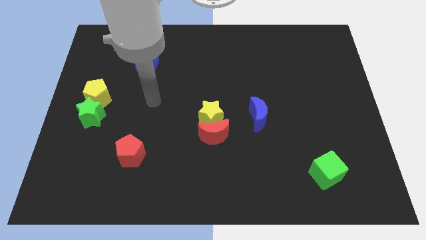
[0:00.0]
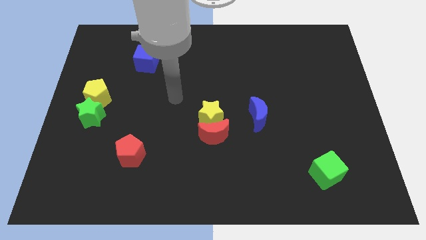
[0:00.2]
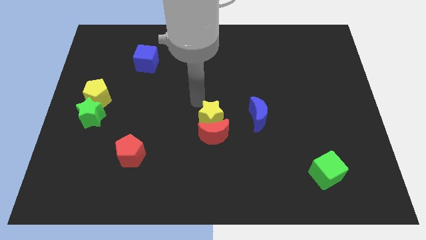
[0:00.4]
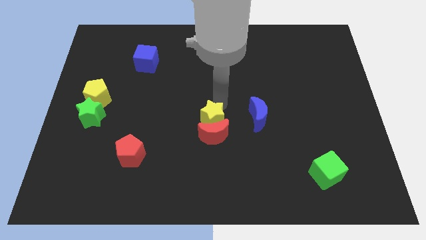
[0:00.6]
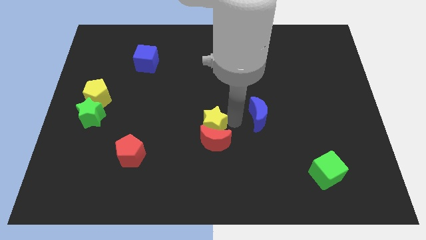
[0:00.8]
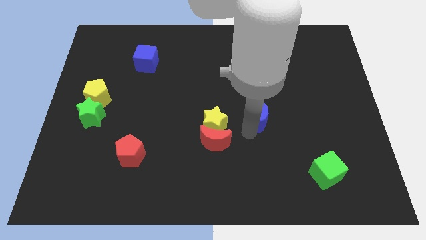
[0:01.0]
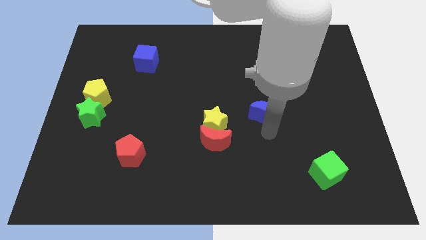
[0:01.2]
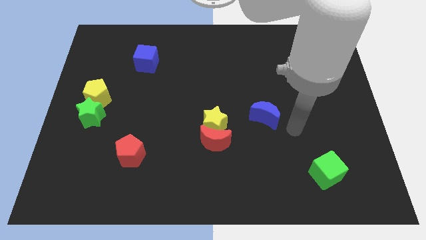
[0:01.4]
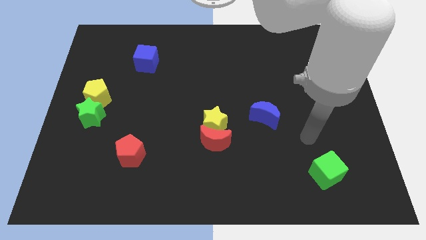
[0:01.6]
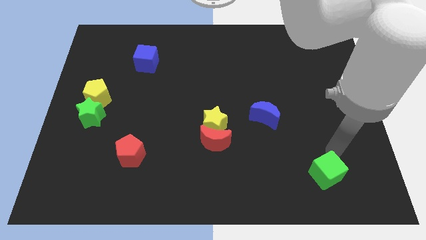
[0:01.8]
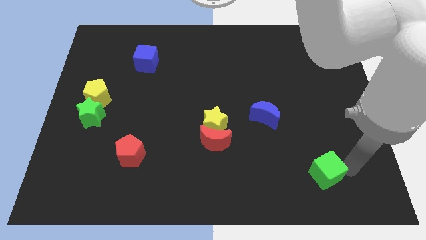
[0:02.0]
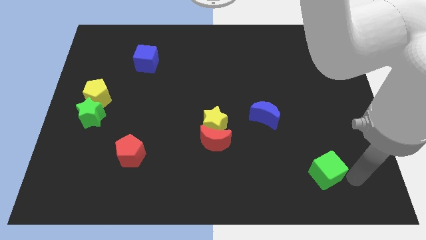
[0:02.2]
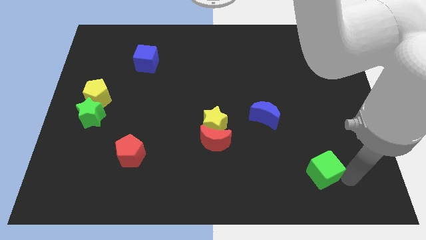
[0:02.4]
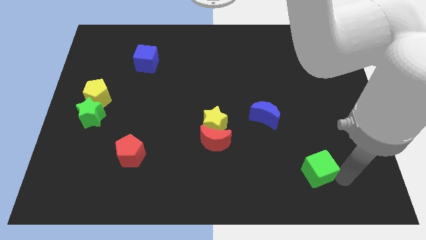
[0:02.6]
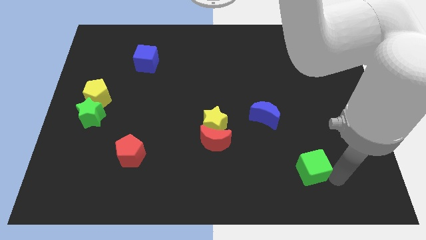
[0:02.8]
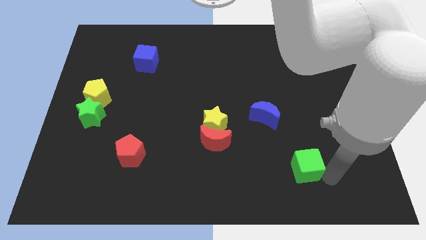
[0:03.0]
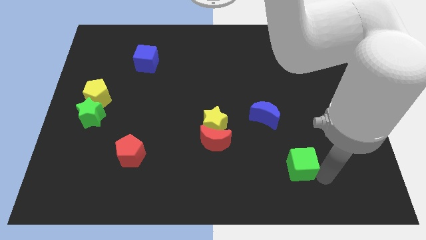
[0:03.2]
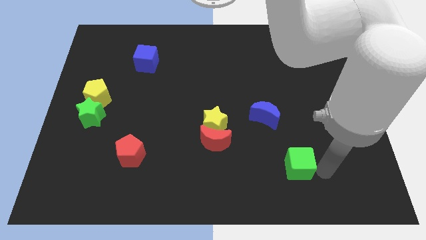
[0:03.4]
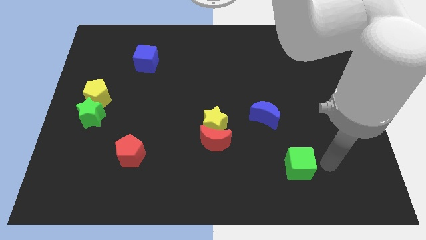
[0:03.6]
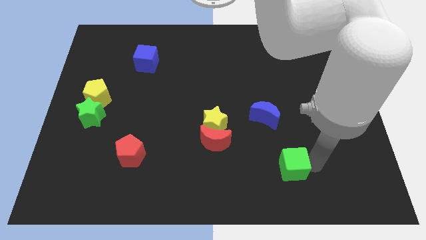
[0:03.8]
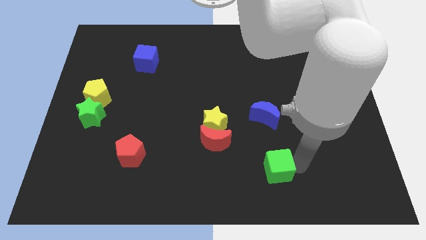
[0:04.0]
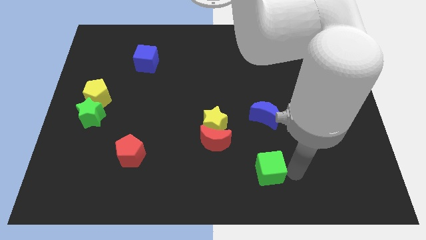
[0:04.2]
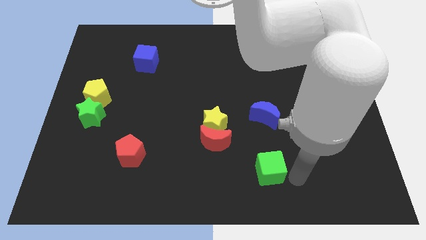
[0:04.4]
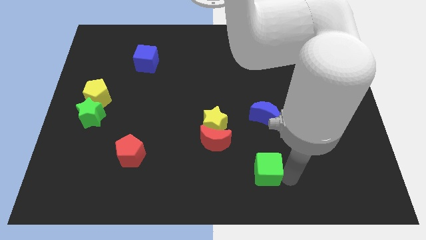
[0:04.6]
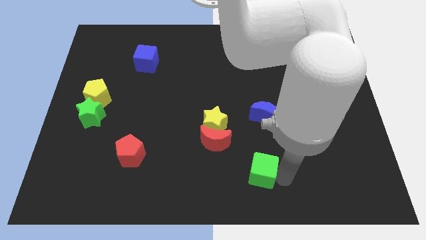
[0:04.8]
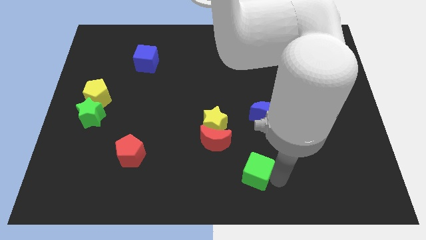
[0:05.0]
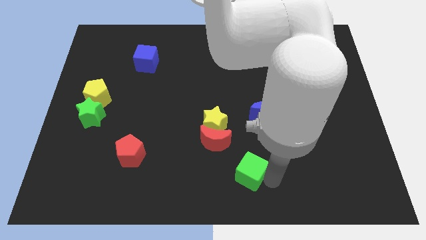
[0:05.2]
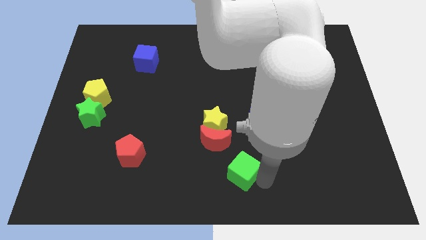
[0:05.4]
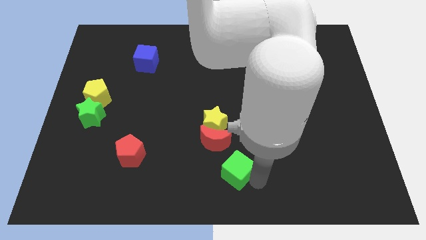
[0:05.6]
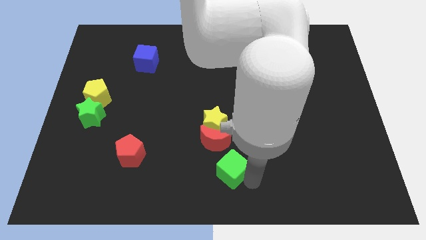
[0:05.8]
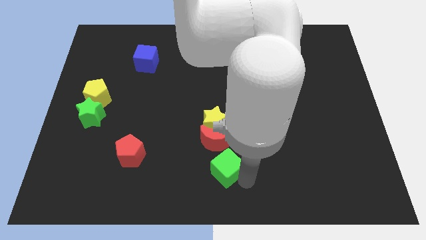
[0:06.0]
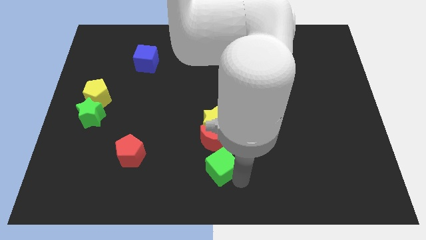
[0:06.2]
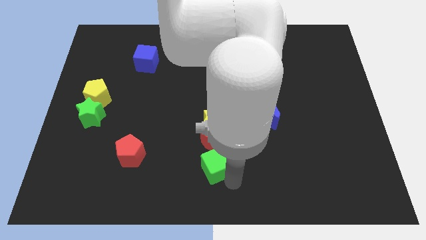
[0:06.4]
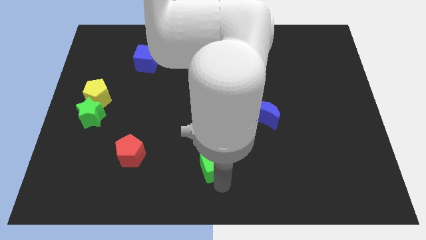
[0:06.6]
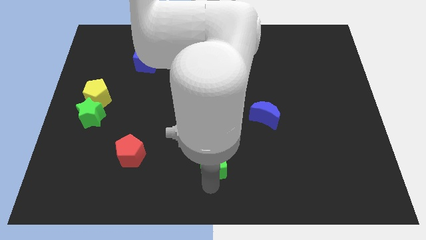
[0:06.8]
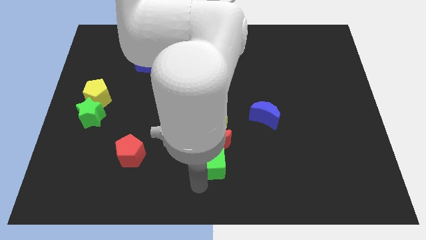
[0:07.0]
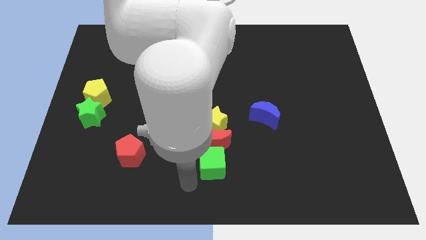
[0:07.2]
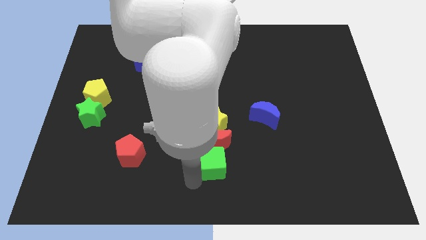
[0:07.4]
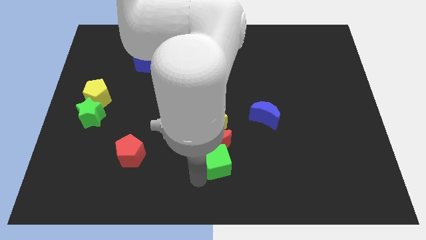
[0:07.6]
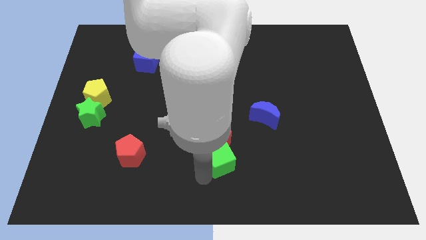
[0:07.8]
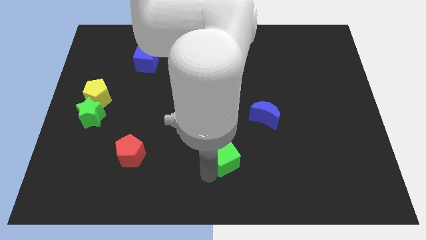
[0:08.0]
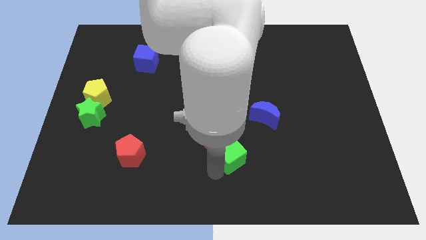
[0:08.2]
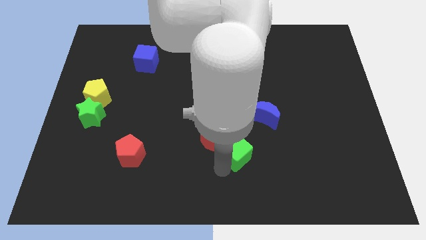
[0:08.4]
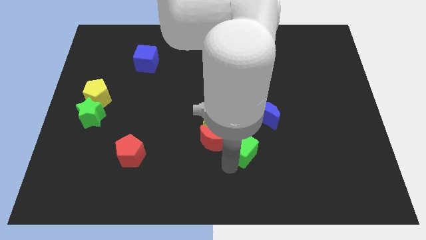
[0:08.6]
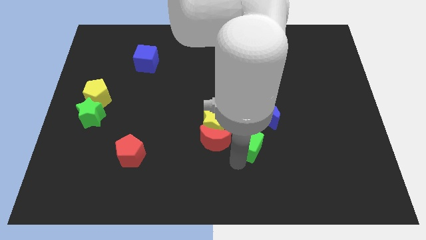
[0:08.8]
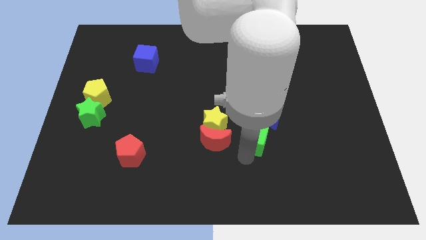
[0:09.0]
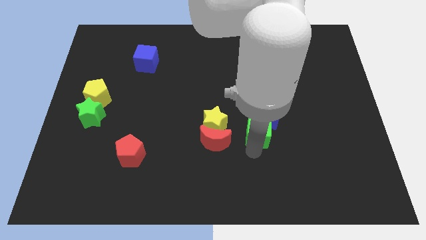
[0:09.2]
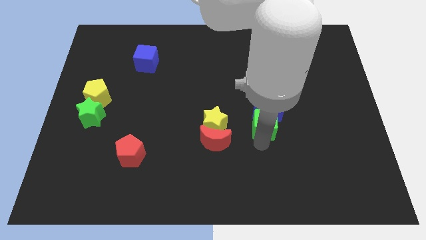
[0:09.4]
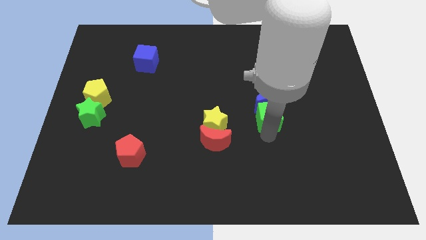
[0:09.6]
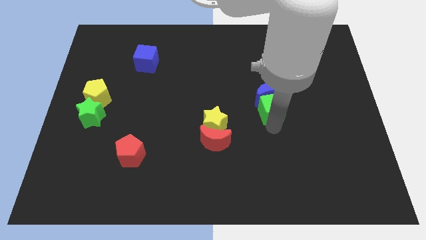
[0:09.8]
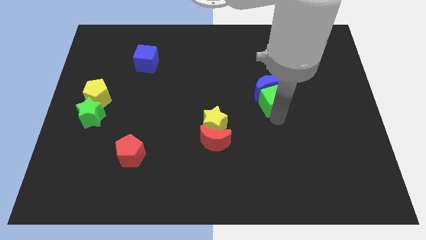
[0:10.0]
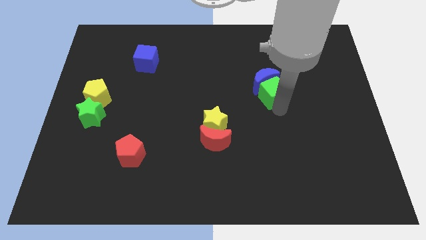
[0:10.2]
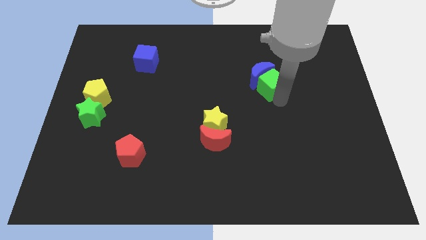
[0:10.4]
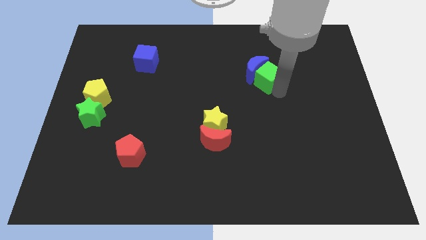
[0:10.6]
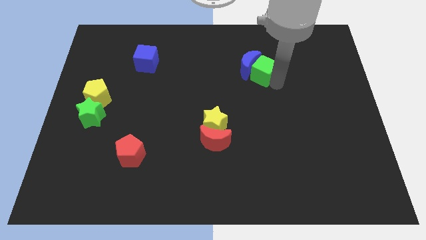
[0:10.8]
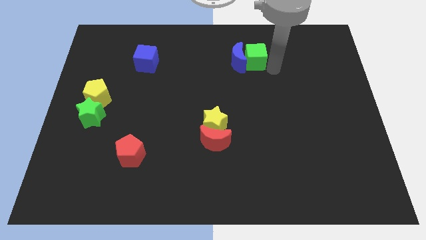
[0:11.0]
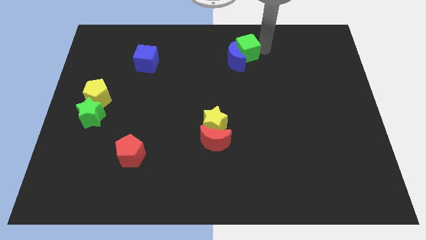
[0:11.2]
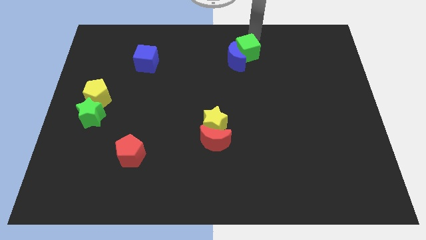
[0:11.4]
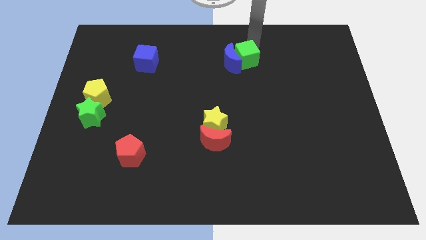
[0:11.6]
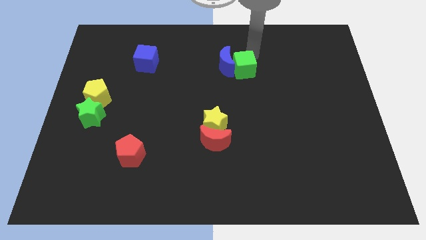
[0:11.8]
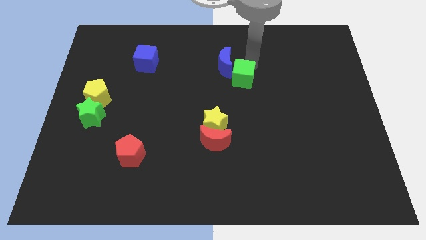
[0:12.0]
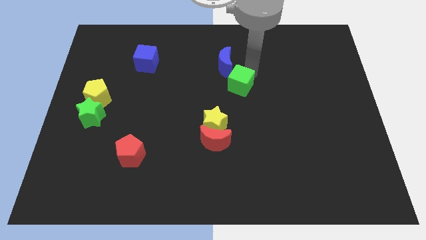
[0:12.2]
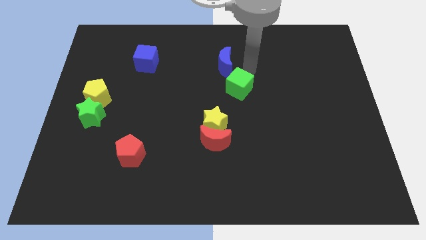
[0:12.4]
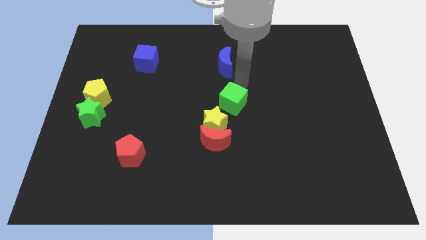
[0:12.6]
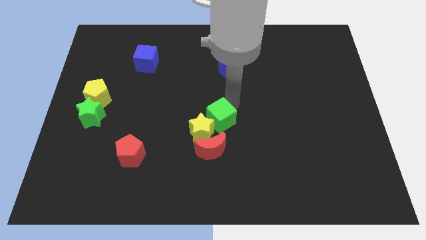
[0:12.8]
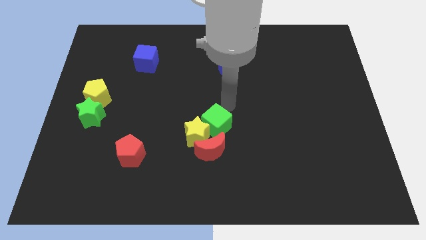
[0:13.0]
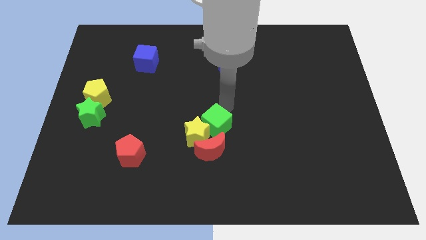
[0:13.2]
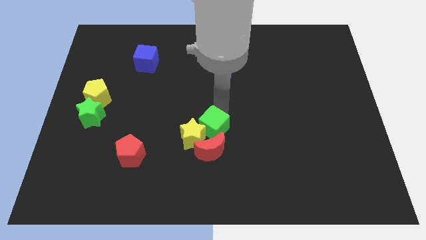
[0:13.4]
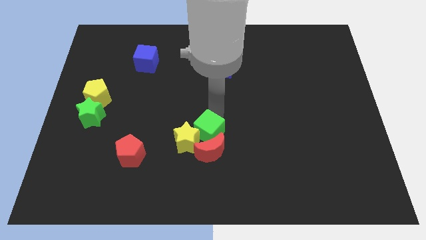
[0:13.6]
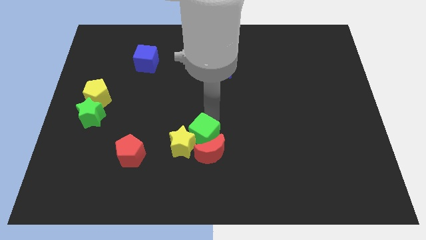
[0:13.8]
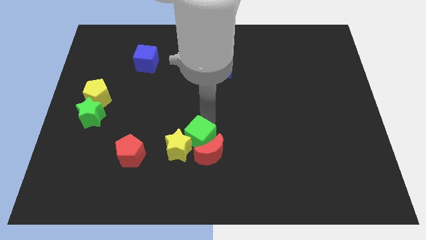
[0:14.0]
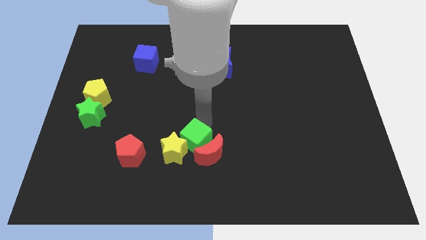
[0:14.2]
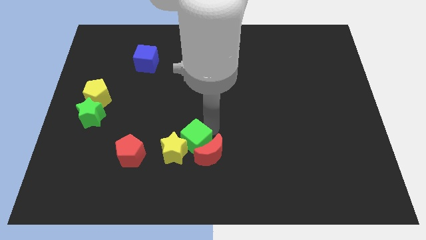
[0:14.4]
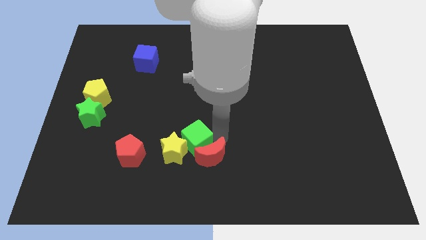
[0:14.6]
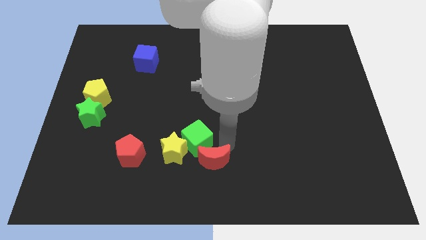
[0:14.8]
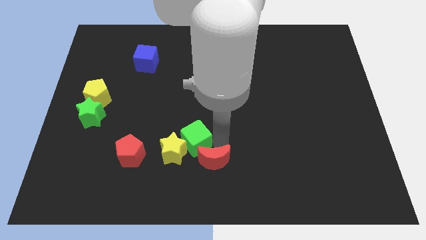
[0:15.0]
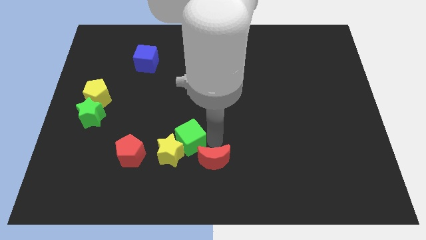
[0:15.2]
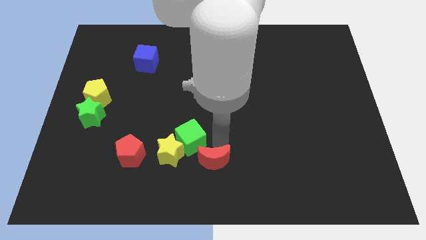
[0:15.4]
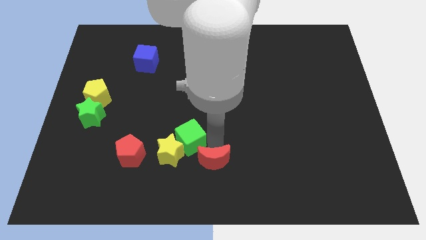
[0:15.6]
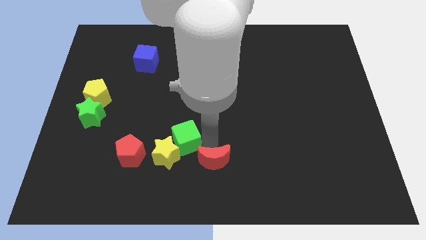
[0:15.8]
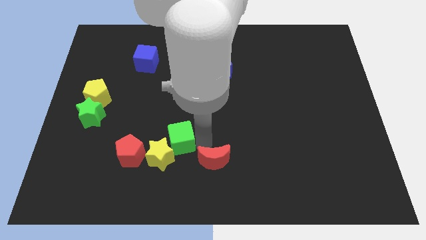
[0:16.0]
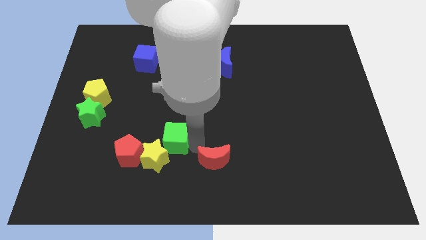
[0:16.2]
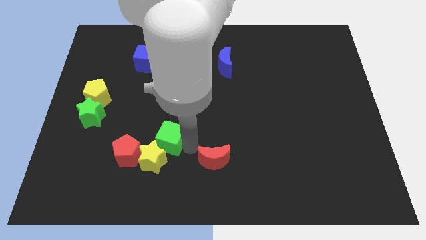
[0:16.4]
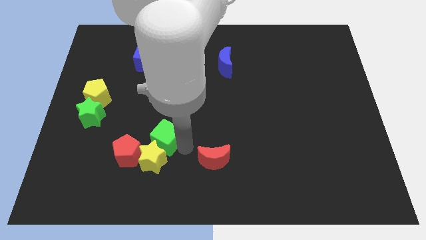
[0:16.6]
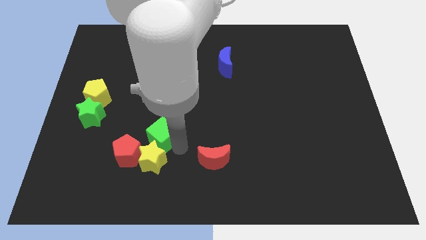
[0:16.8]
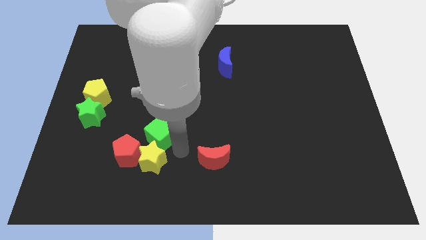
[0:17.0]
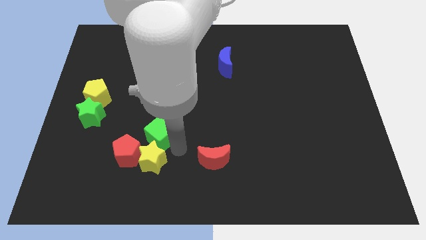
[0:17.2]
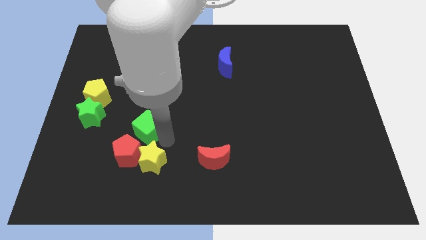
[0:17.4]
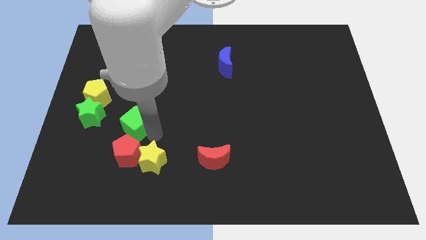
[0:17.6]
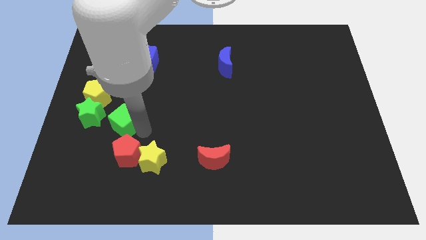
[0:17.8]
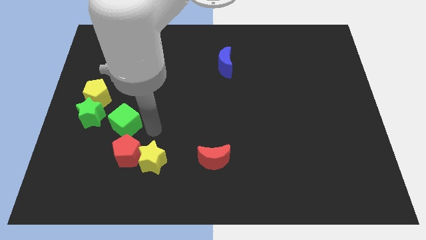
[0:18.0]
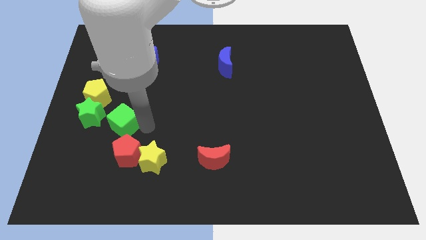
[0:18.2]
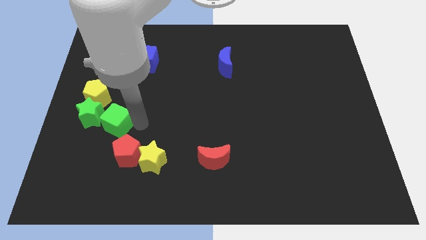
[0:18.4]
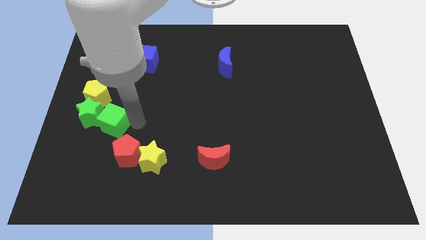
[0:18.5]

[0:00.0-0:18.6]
put the green cube next to the green star
